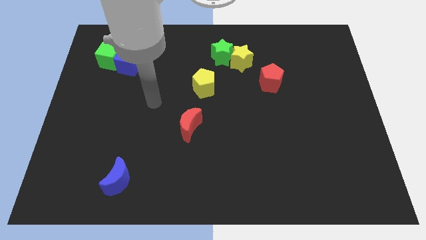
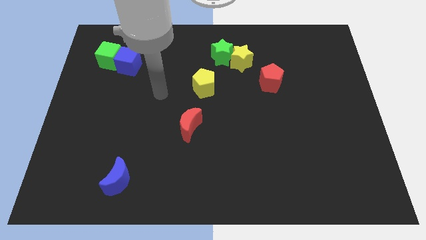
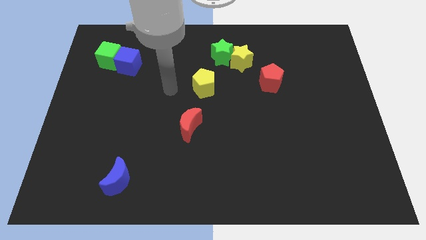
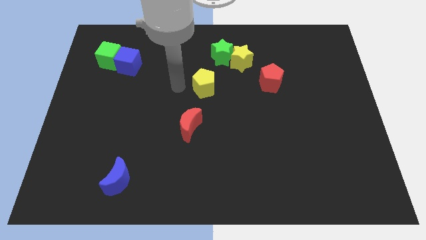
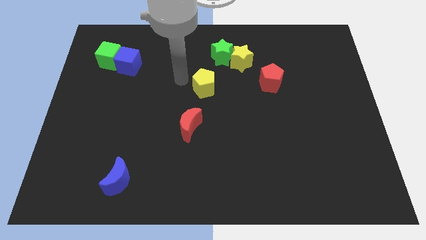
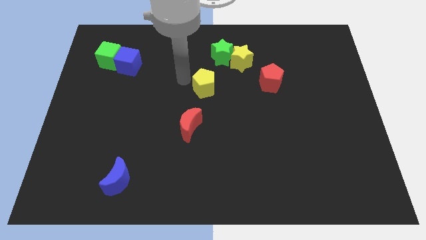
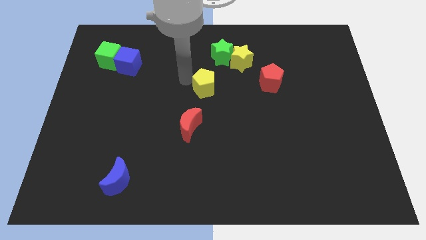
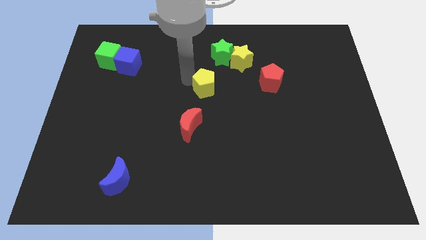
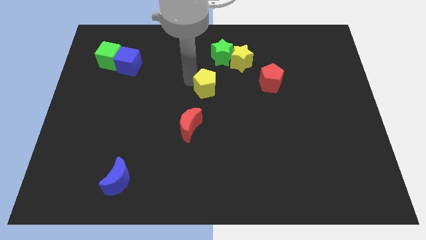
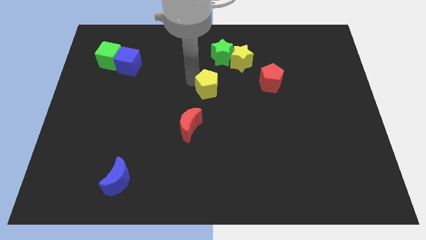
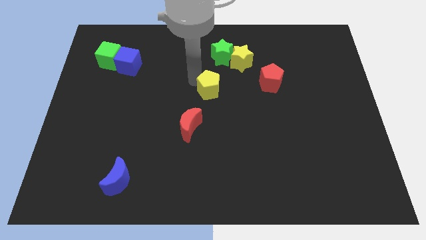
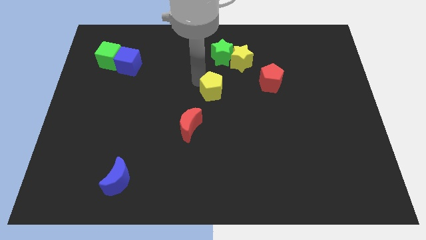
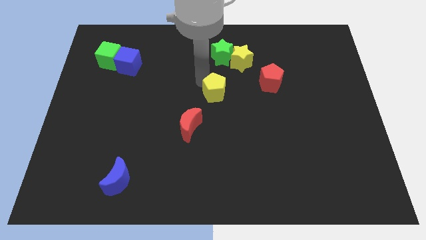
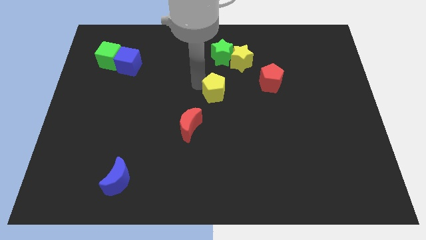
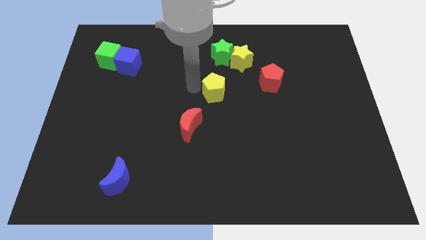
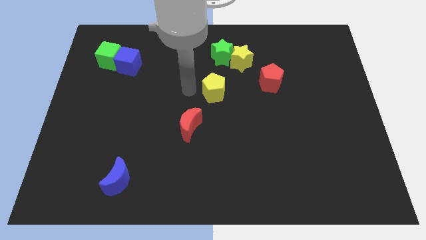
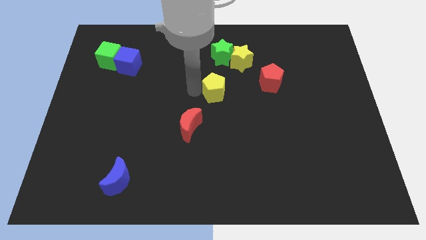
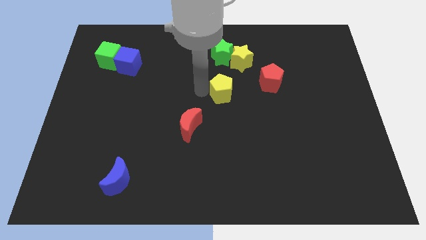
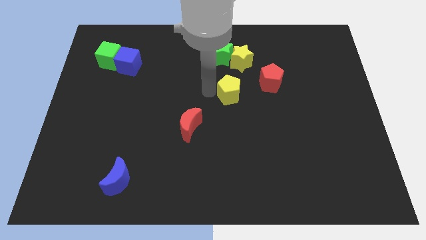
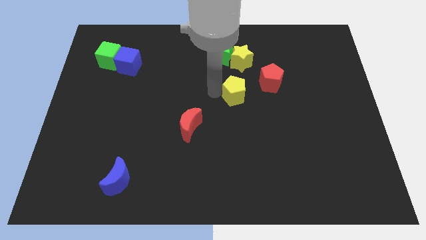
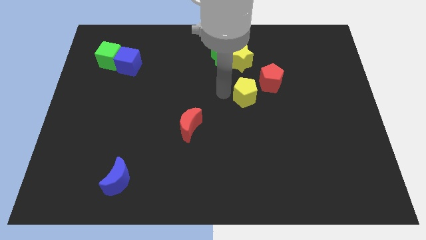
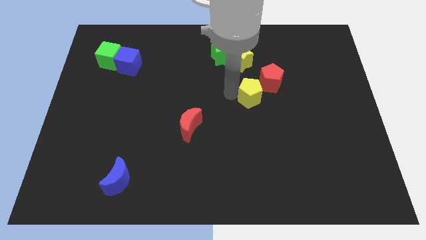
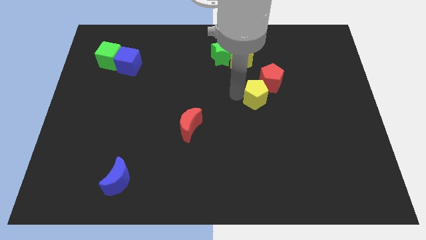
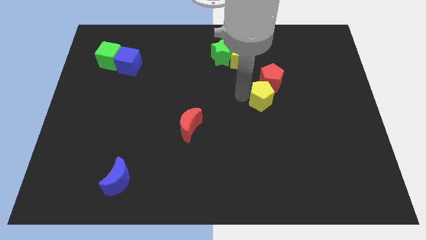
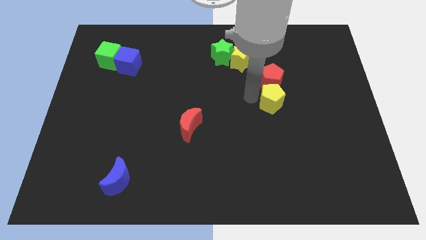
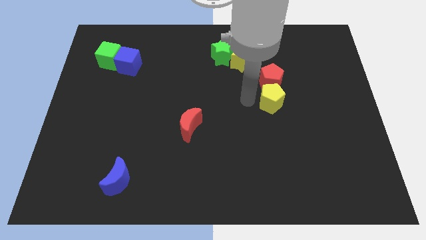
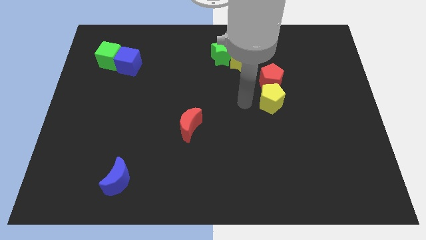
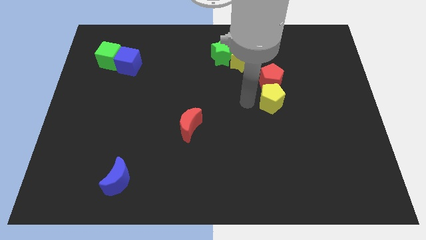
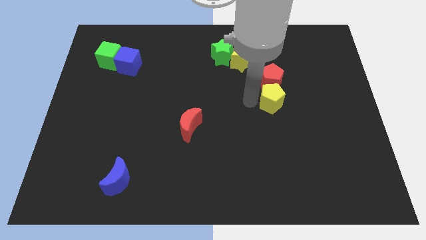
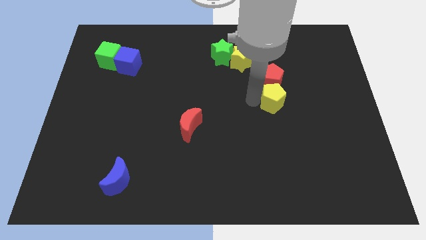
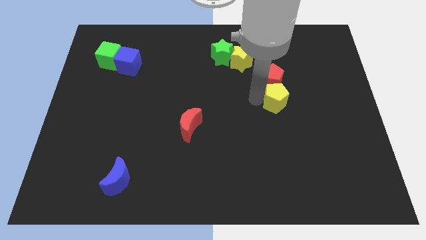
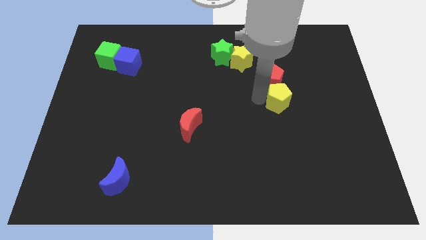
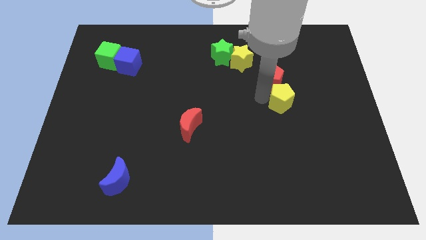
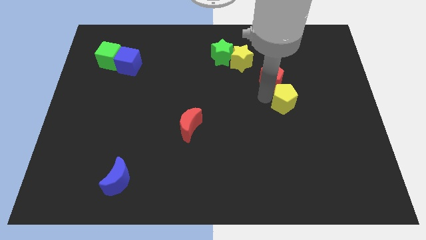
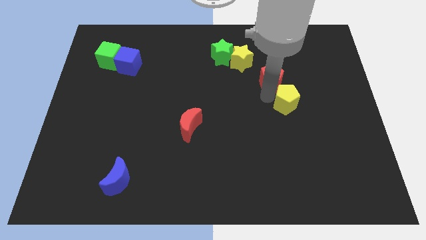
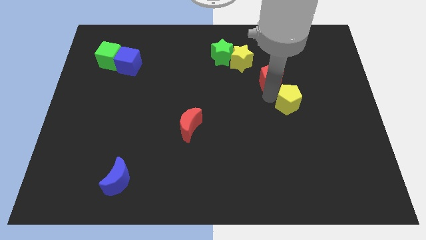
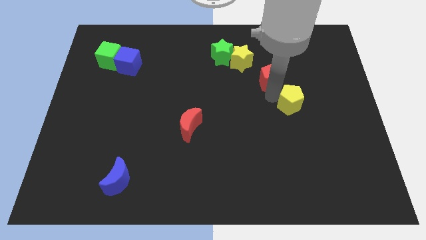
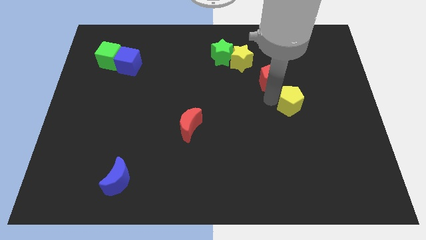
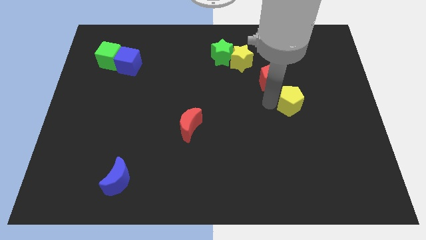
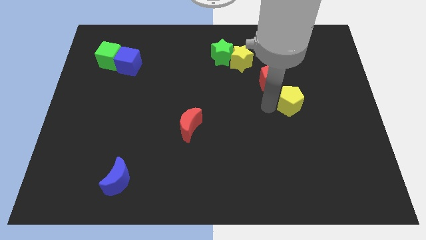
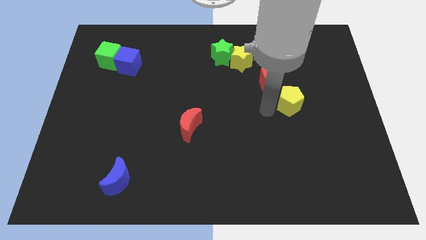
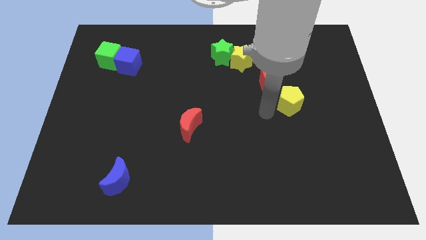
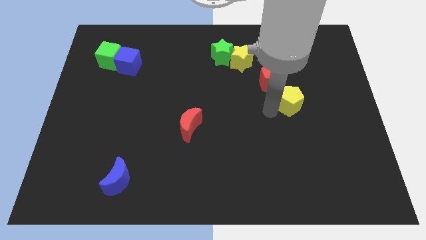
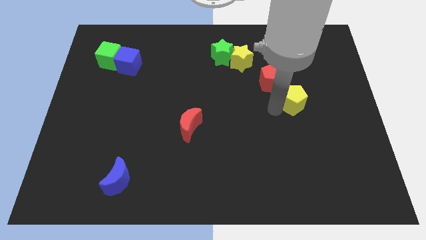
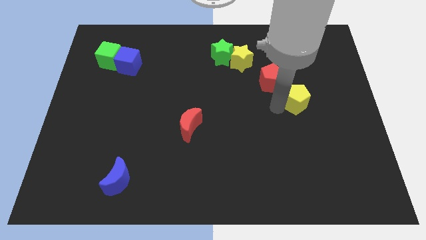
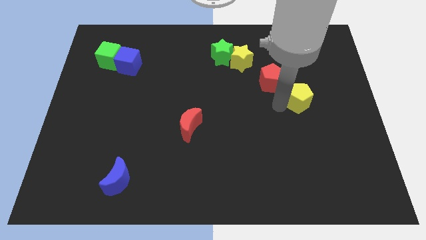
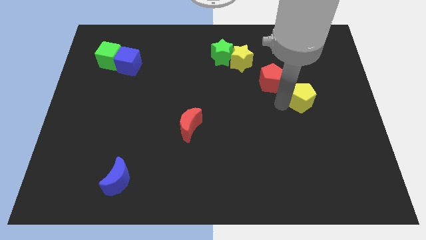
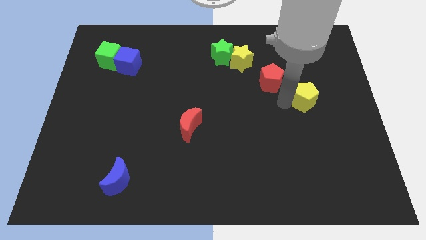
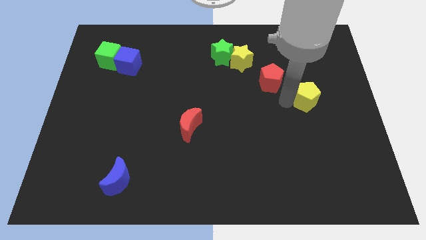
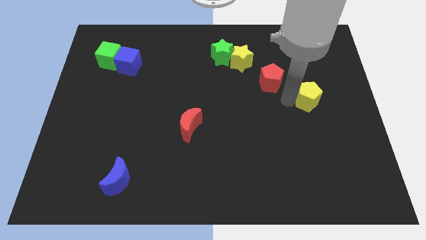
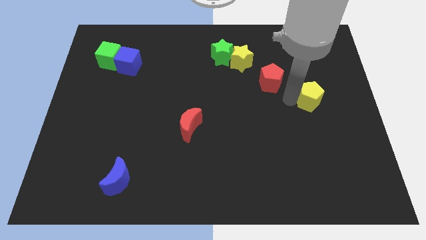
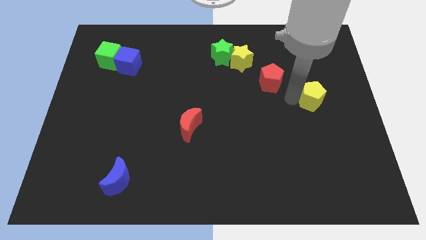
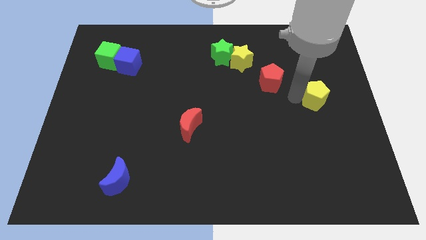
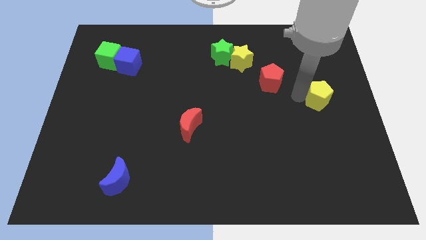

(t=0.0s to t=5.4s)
push the yellow pentagon to the right side

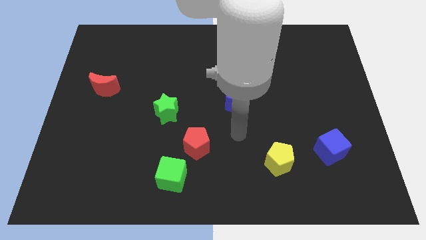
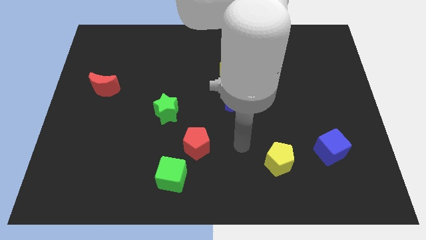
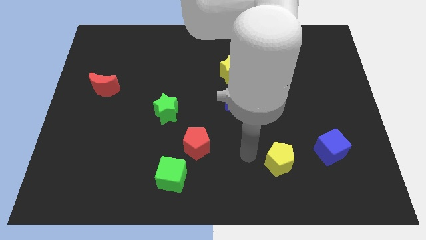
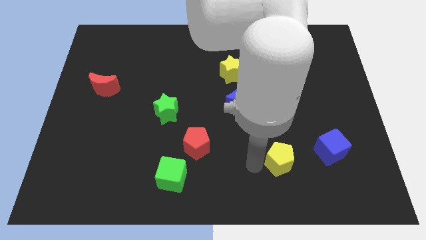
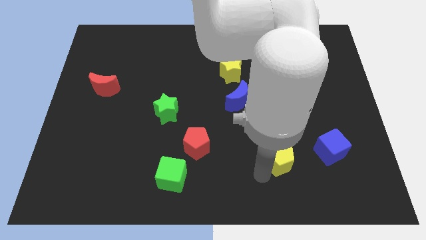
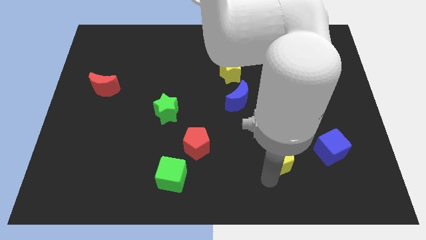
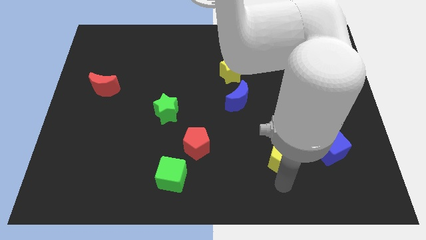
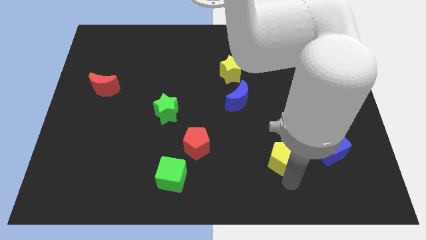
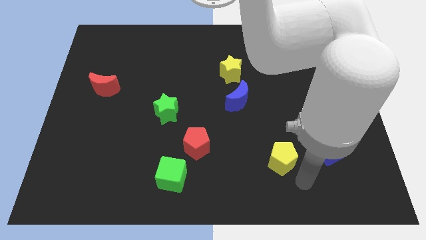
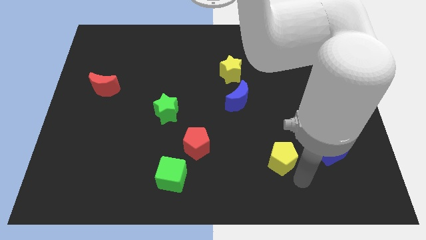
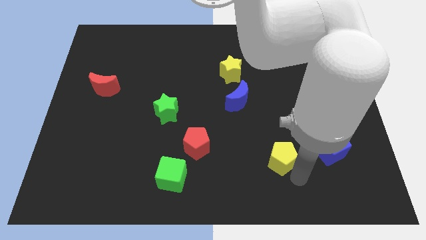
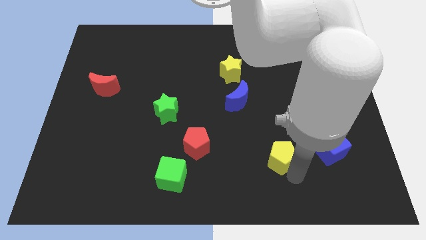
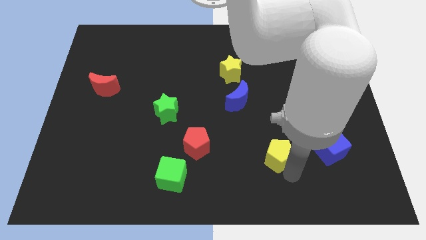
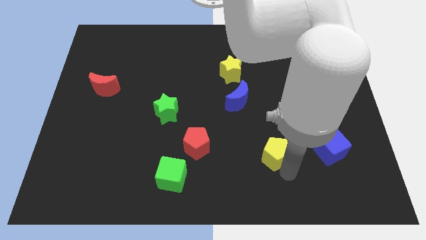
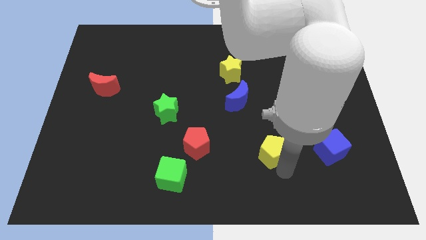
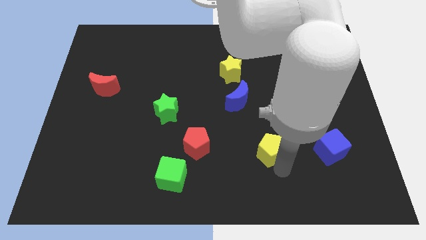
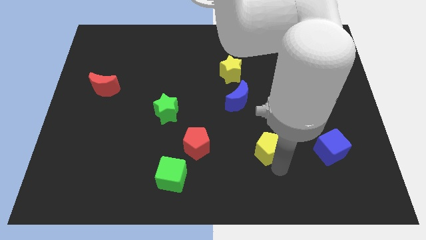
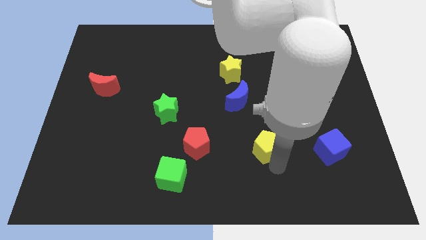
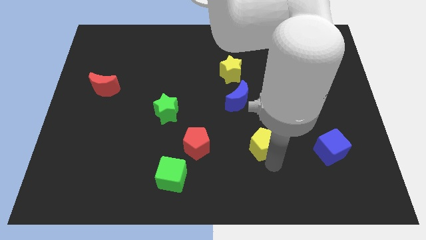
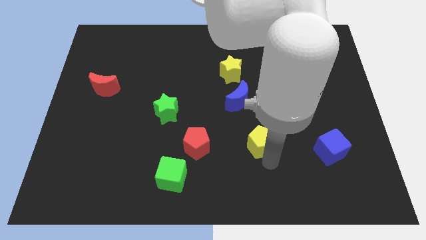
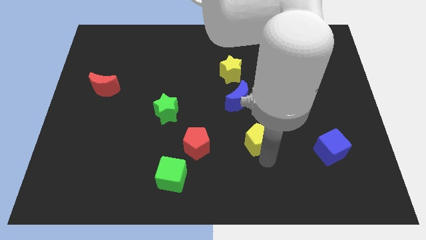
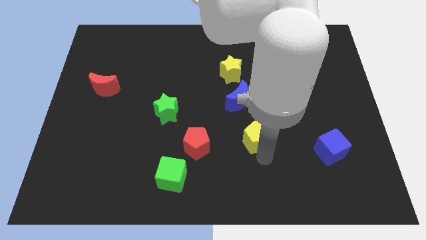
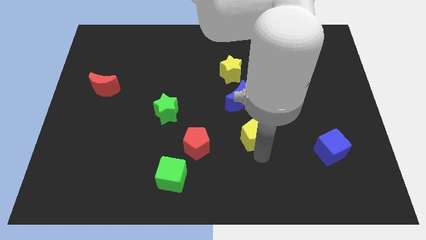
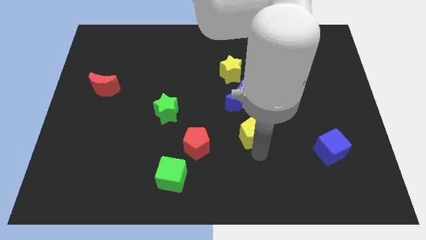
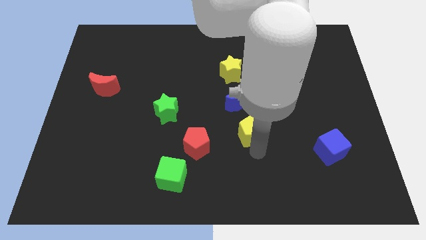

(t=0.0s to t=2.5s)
push the yellow pentagon to the center

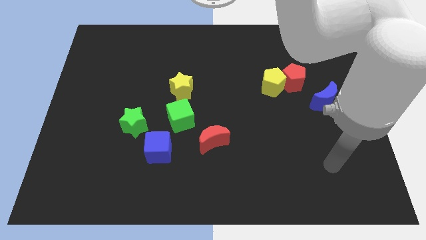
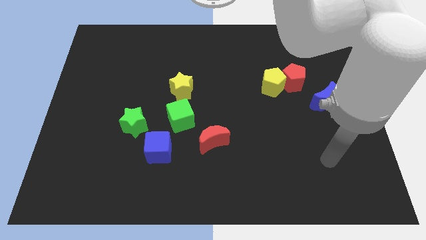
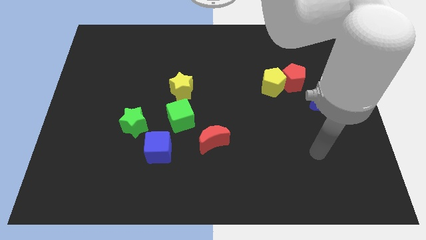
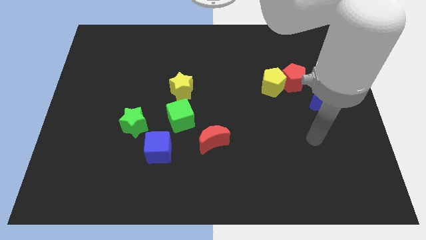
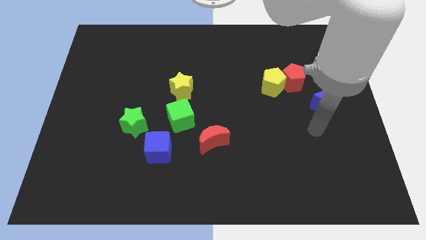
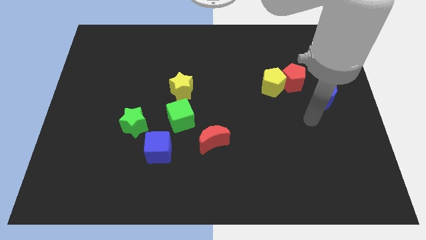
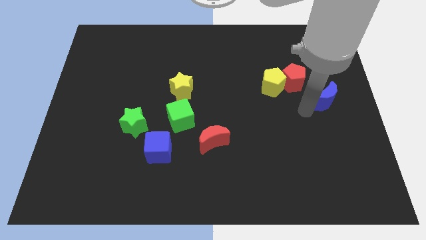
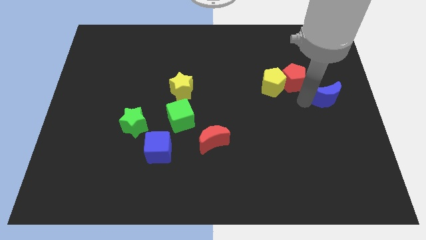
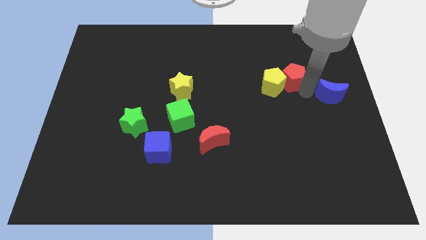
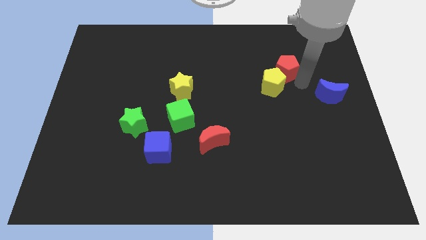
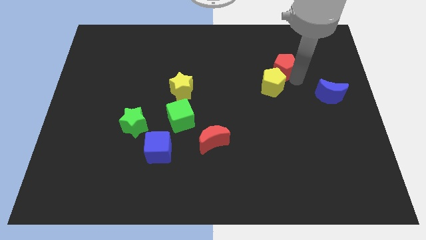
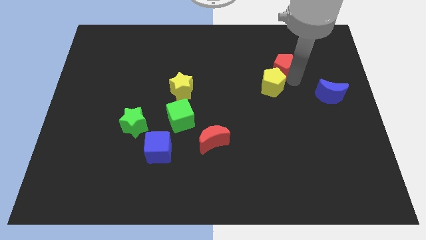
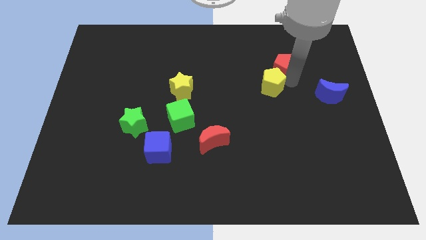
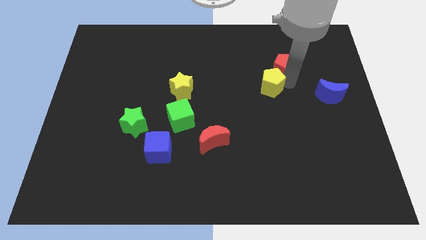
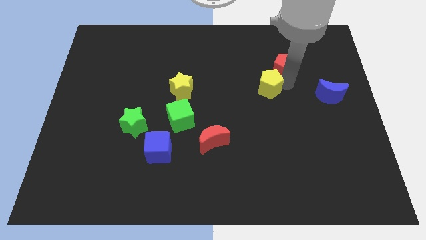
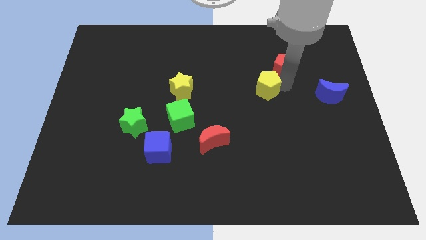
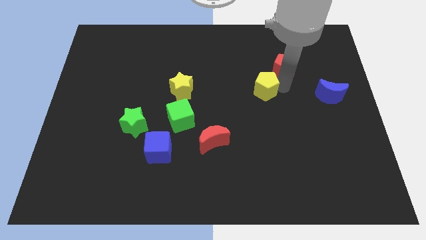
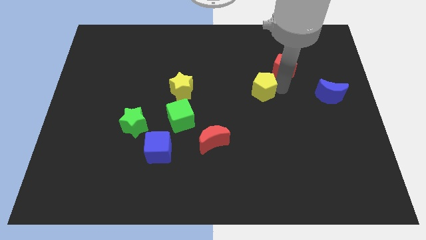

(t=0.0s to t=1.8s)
slide the yellow pentagon to the center of the board
